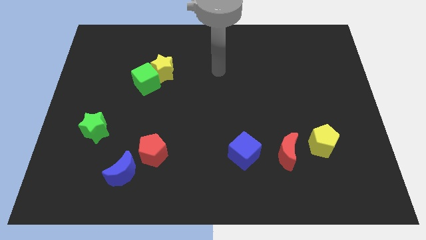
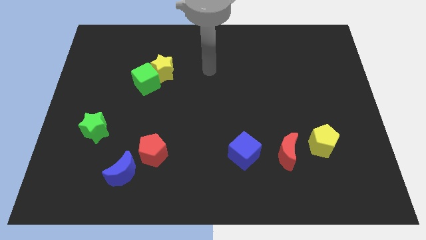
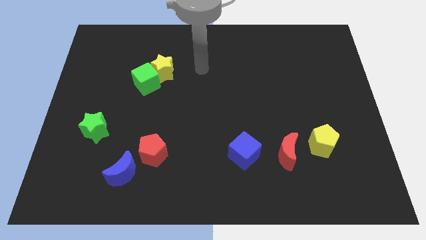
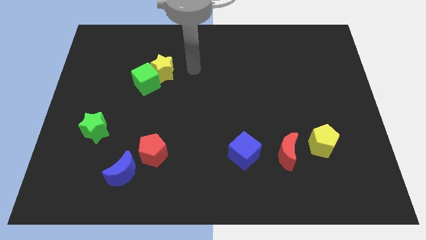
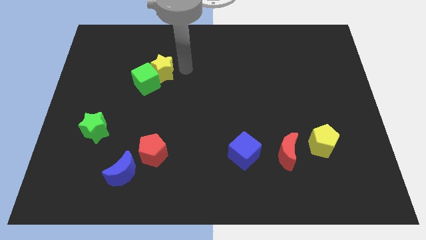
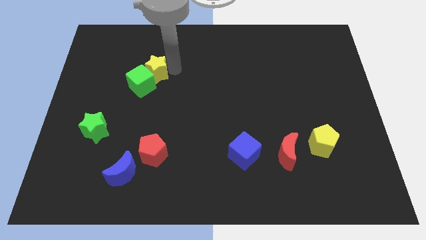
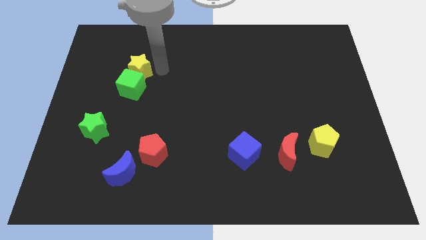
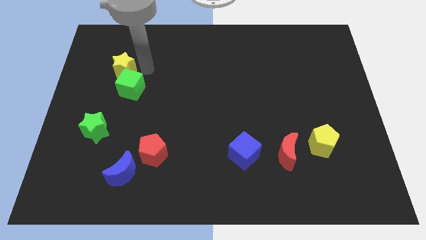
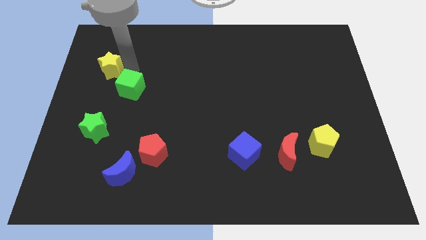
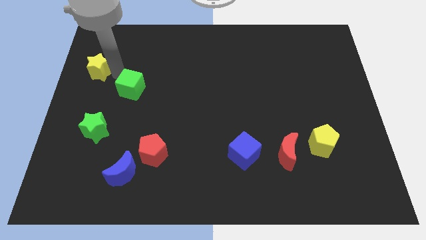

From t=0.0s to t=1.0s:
pull the green cube apart from the yellow star

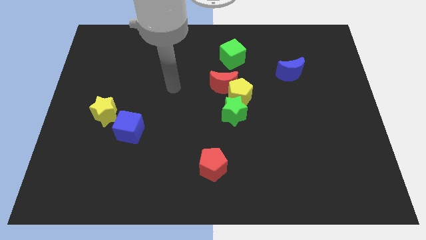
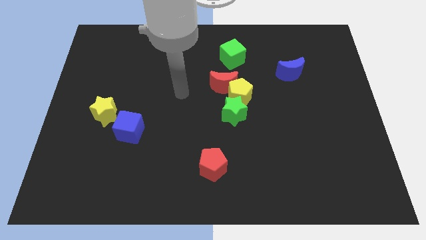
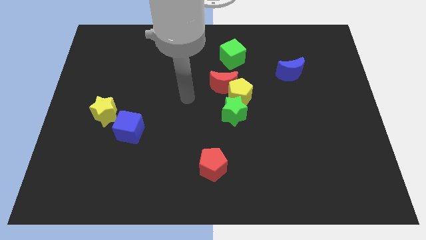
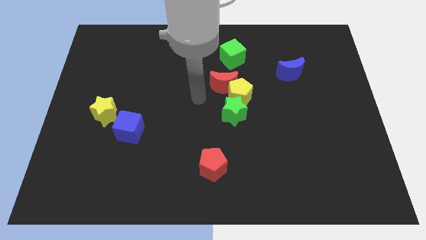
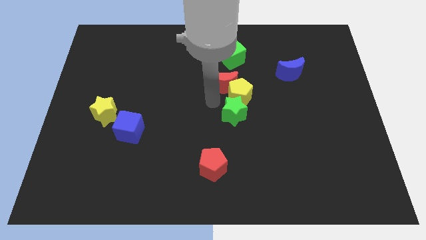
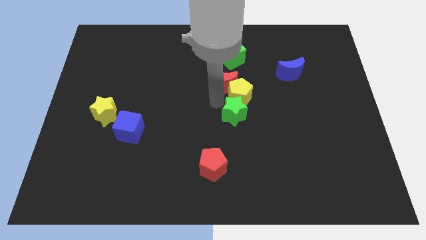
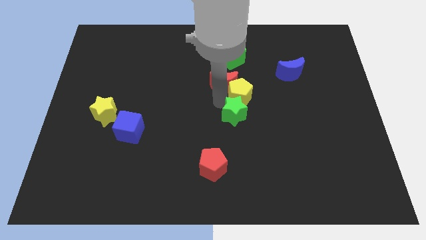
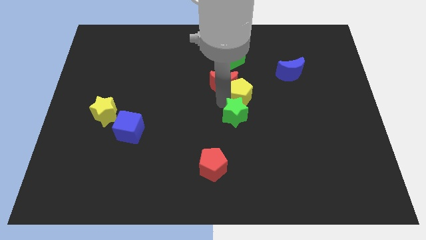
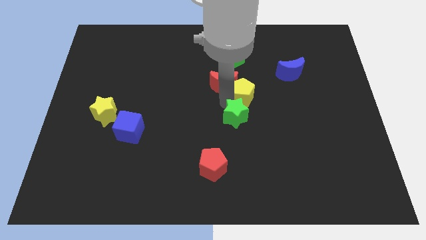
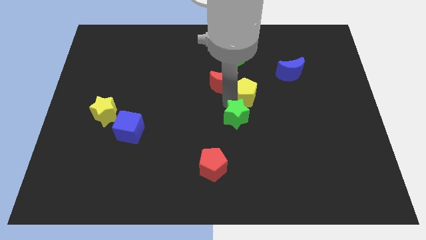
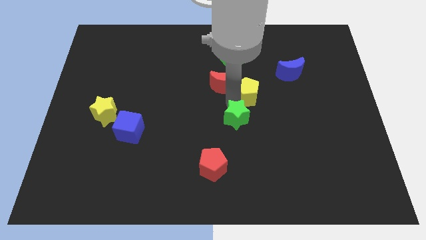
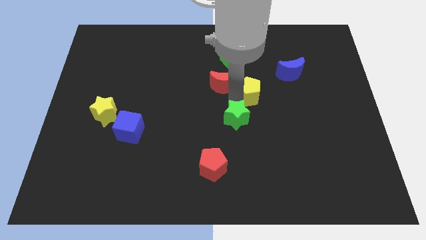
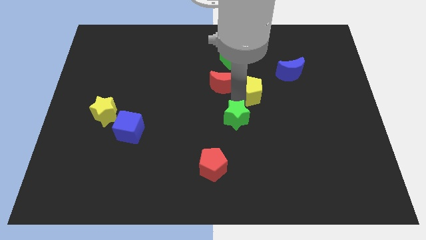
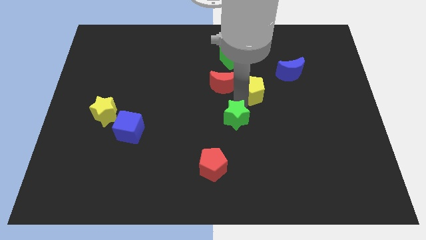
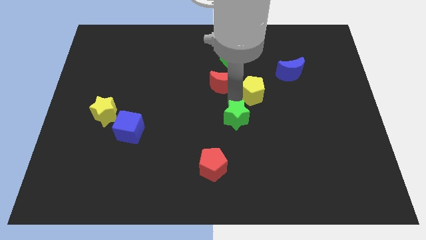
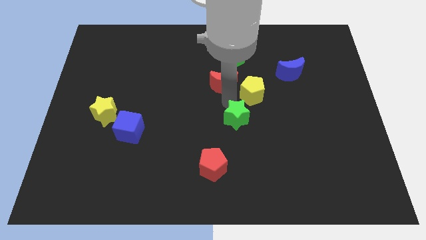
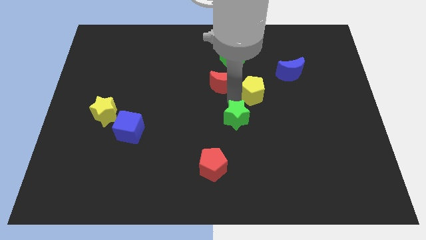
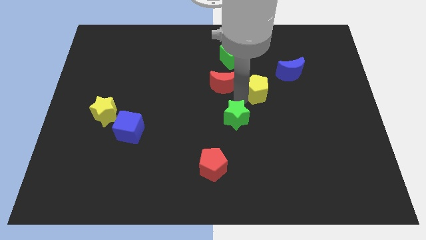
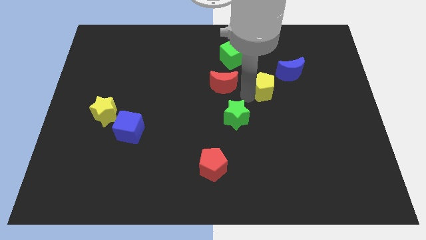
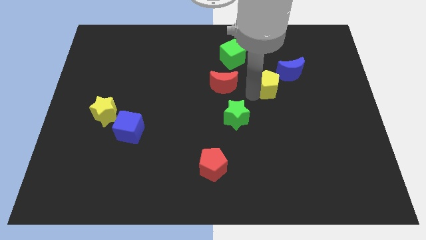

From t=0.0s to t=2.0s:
move the yellow pentagon away from the red moon and green star

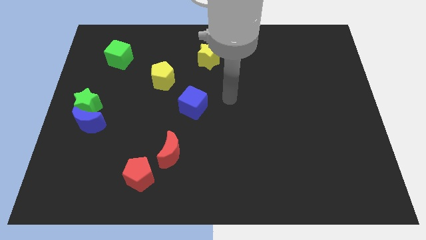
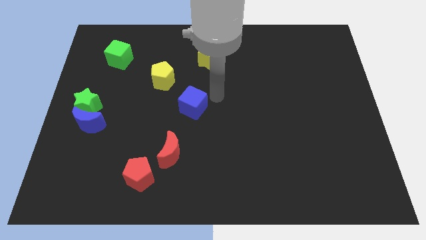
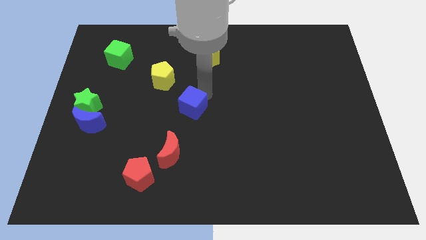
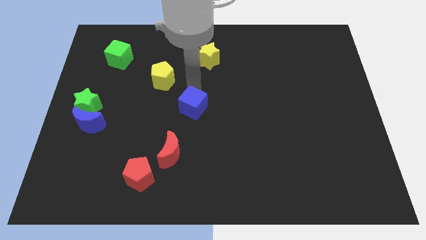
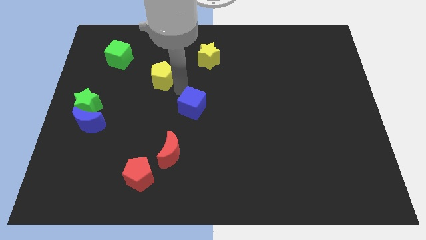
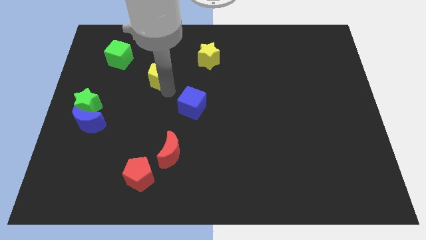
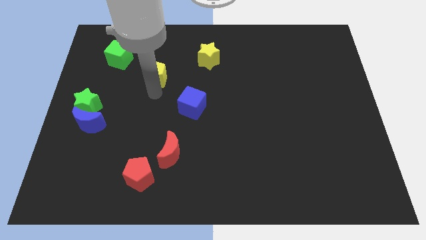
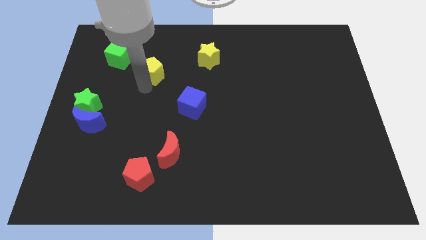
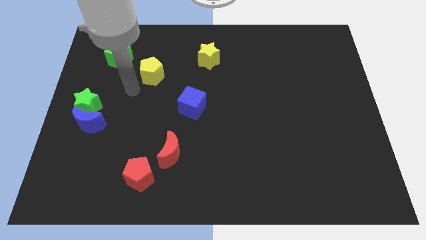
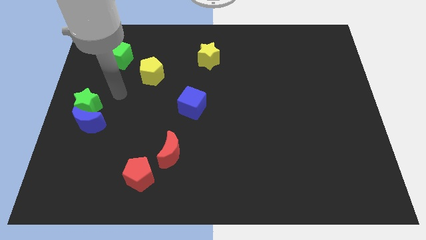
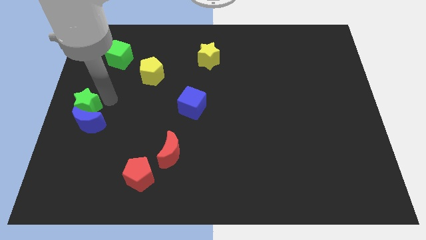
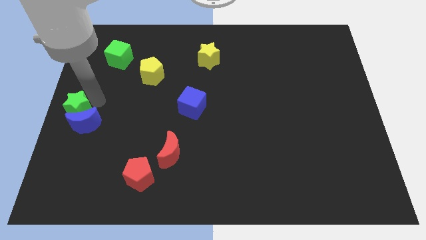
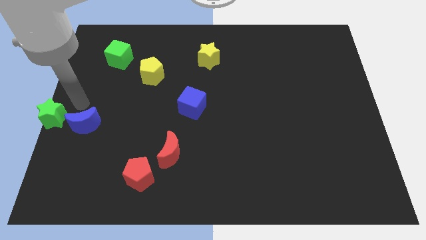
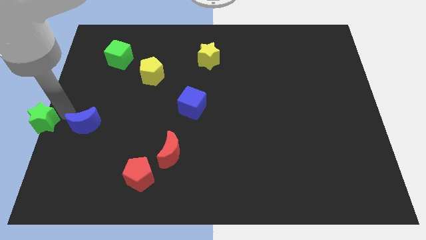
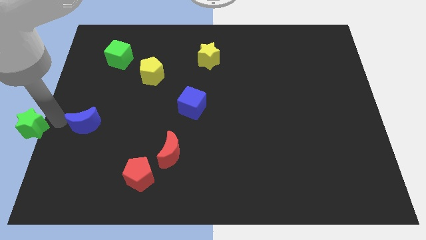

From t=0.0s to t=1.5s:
separate the blue moon from the green star

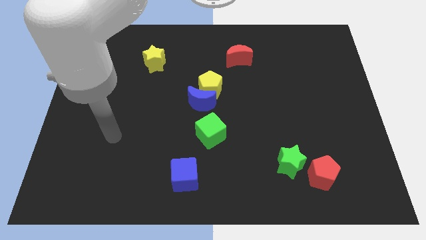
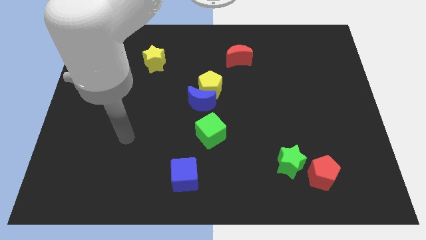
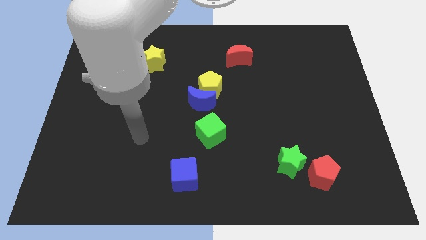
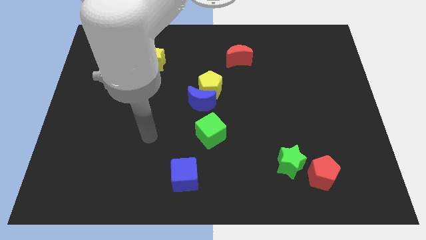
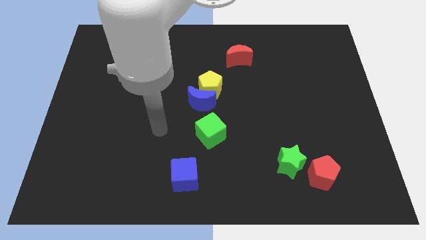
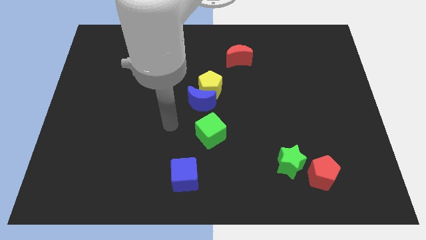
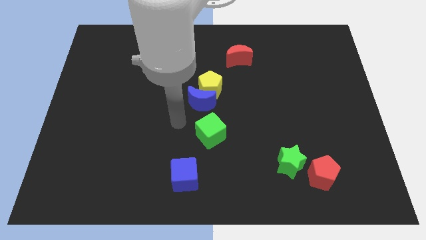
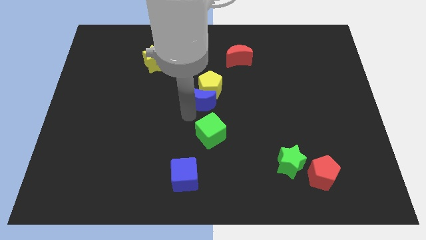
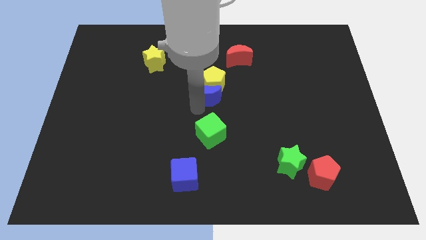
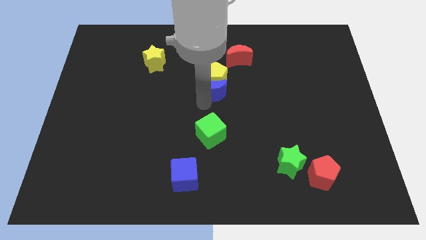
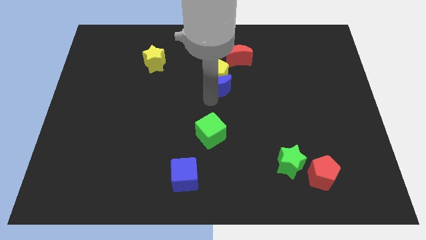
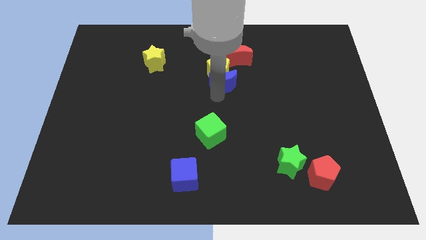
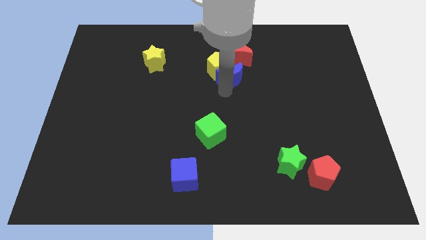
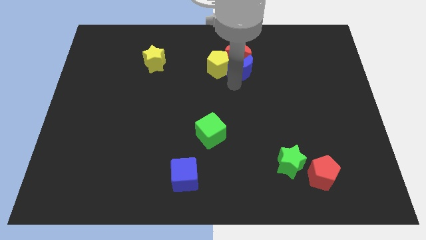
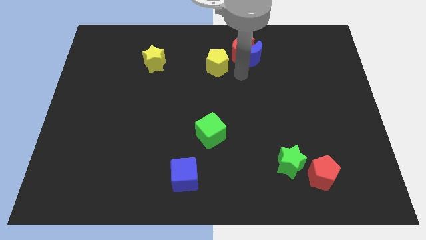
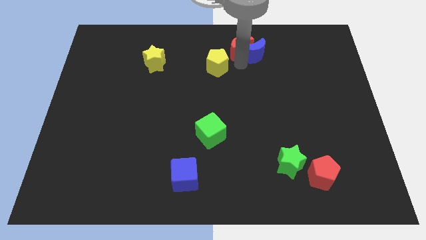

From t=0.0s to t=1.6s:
separate the yellow pentagon from the blue moon

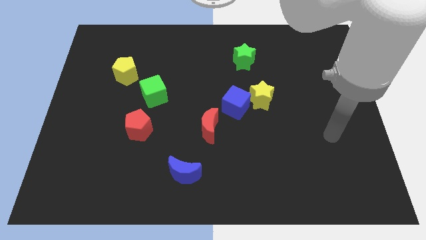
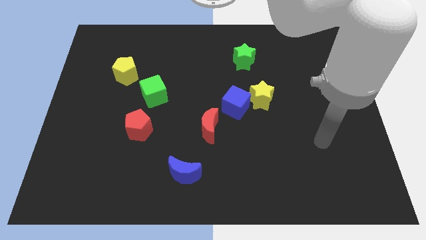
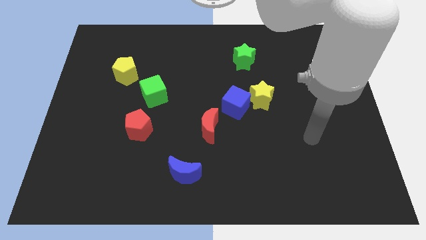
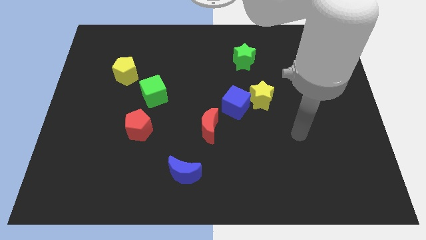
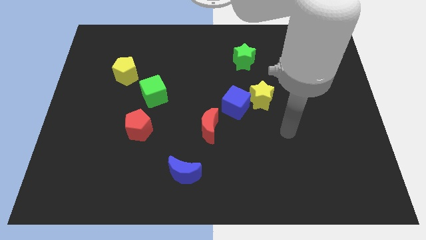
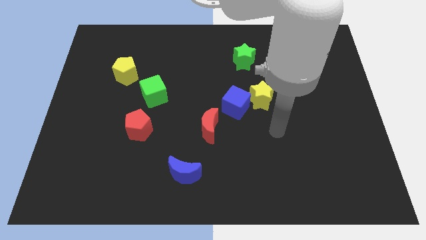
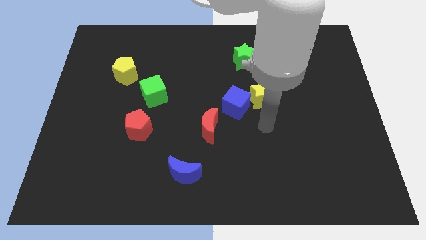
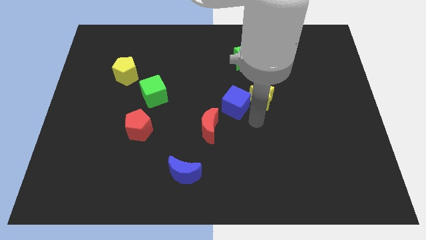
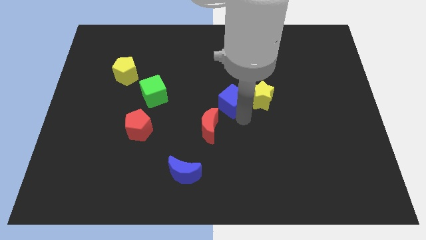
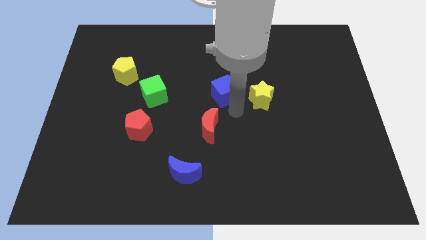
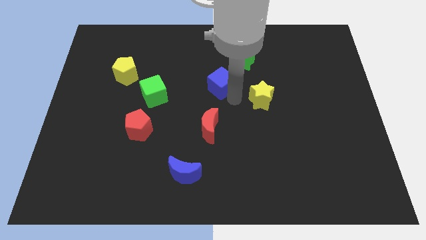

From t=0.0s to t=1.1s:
move the yellow star away from the blue cube

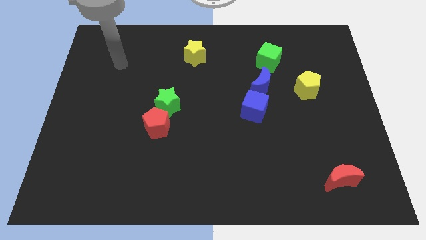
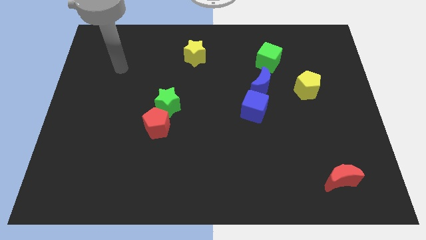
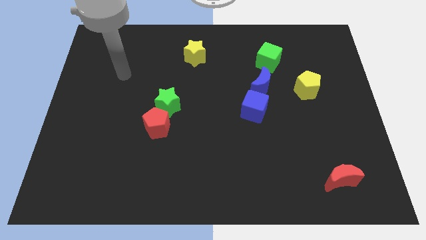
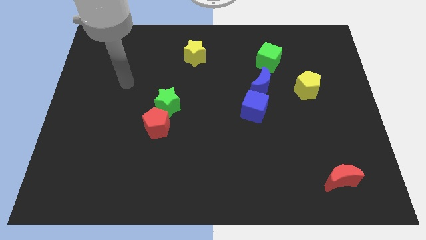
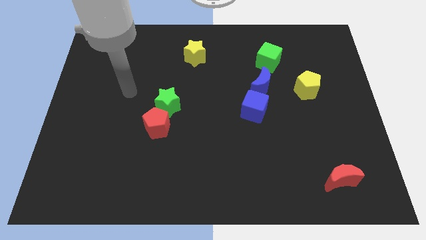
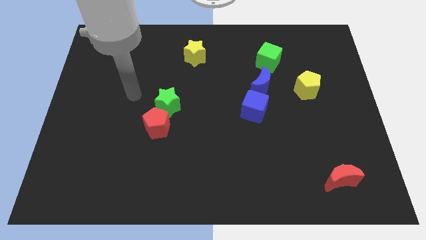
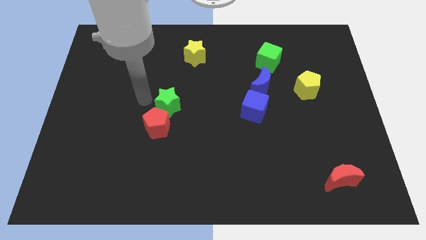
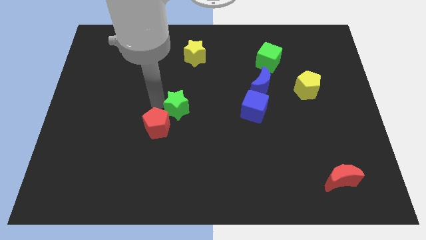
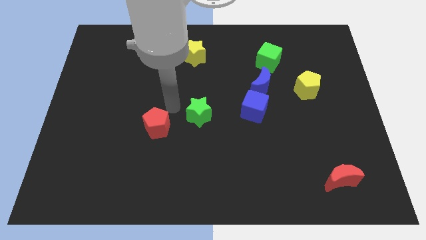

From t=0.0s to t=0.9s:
move the red pentagon away from the green star

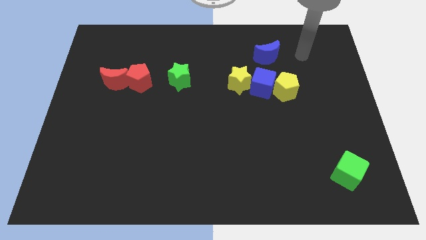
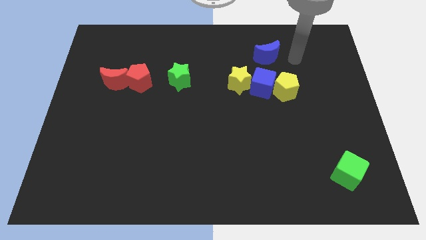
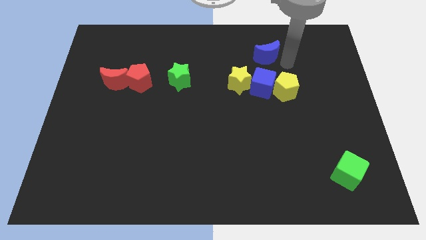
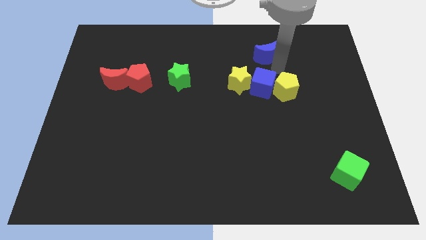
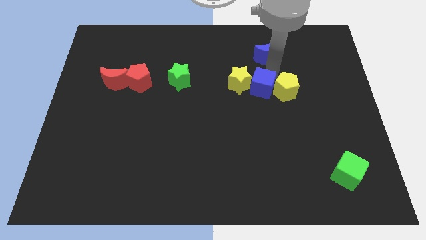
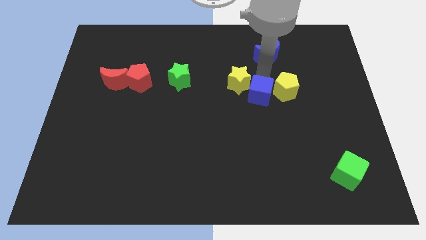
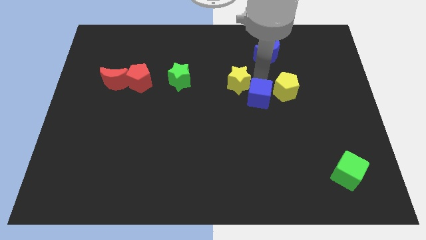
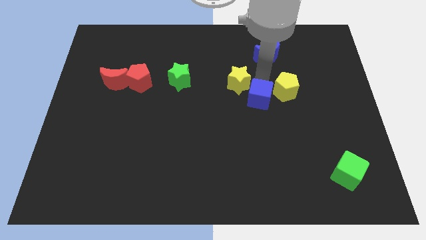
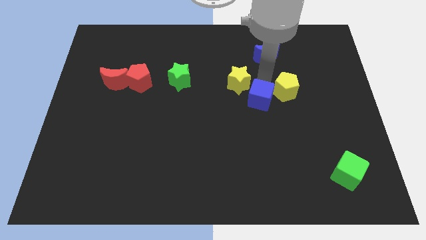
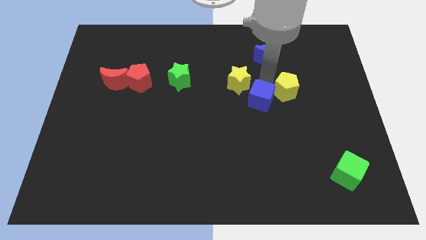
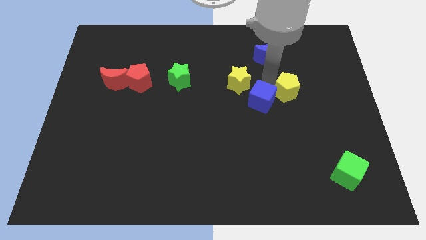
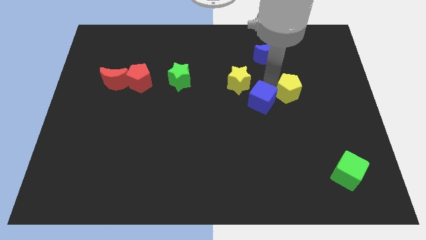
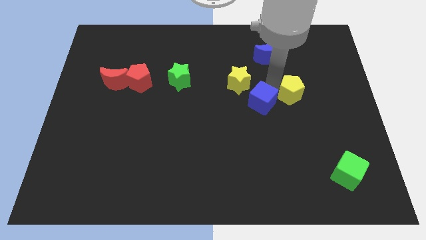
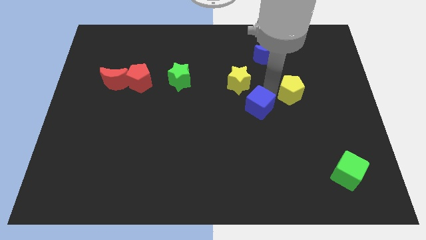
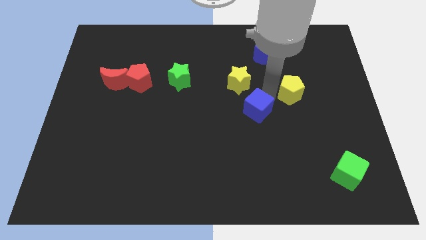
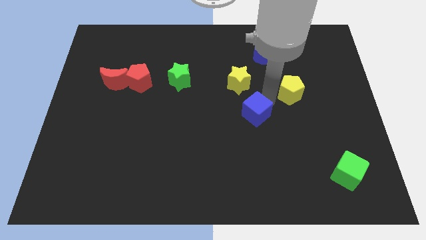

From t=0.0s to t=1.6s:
move the yellow pentagon away from the blue cube
